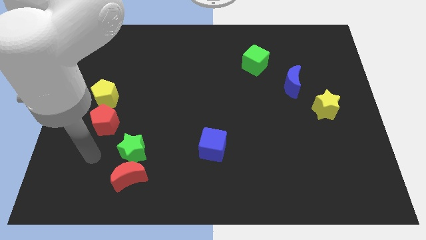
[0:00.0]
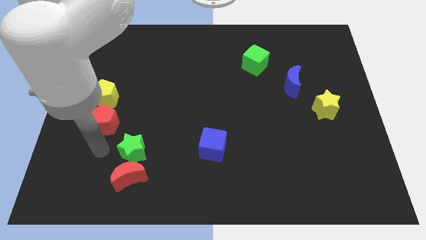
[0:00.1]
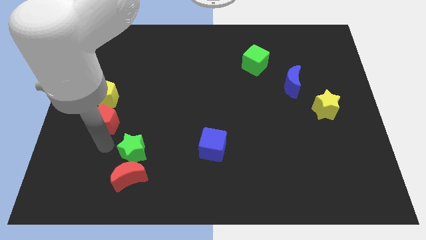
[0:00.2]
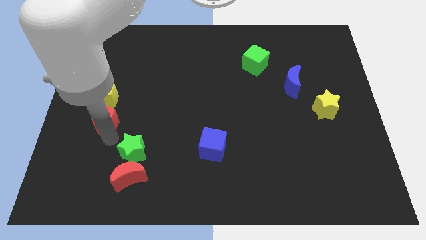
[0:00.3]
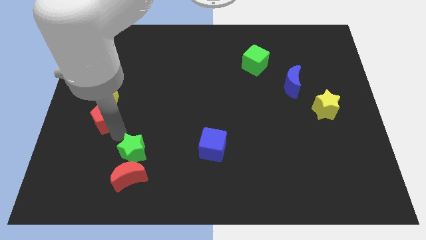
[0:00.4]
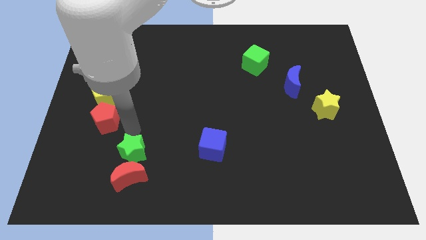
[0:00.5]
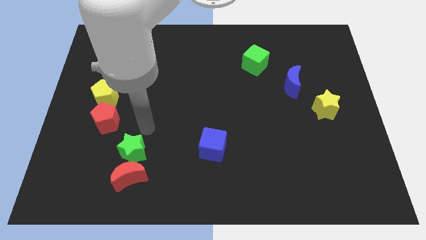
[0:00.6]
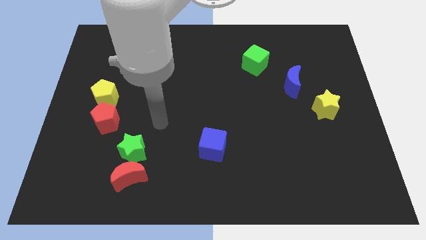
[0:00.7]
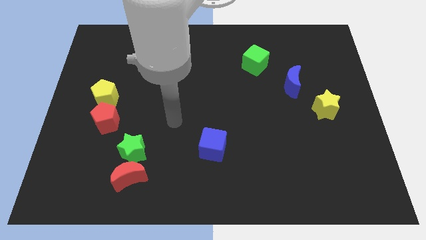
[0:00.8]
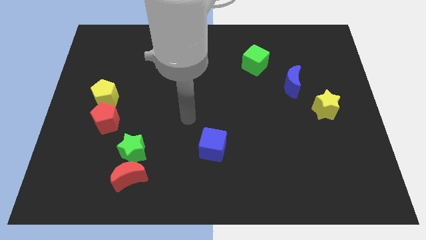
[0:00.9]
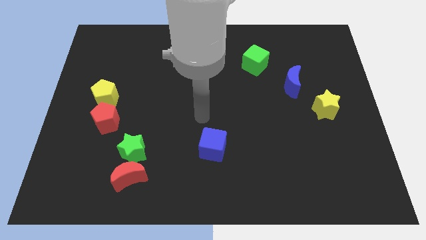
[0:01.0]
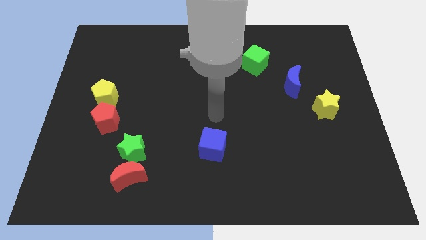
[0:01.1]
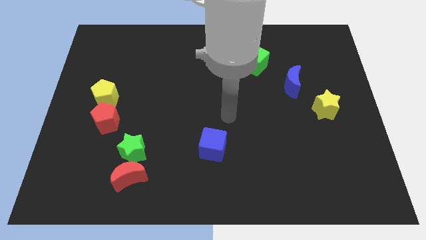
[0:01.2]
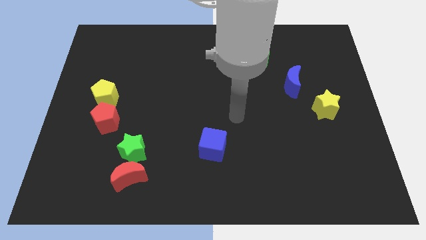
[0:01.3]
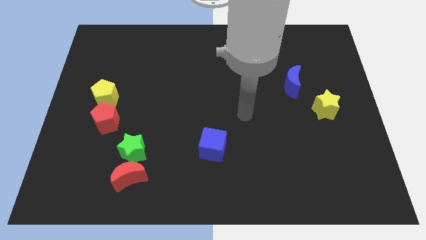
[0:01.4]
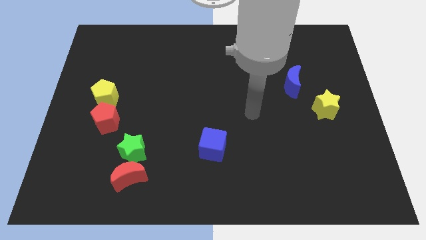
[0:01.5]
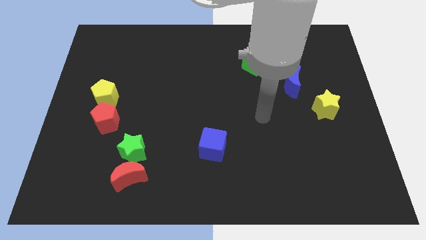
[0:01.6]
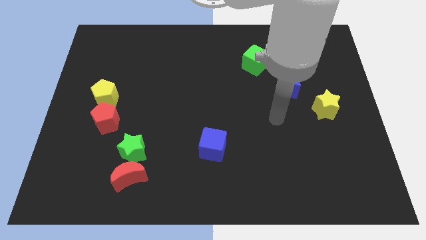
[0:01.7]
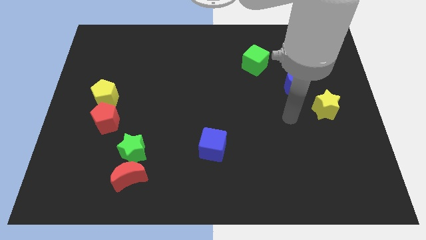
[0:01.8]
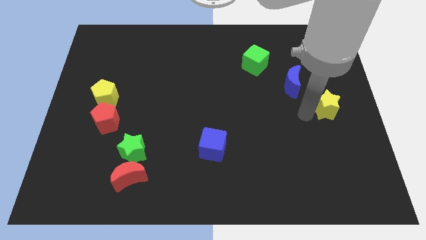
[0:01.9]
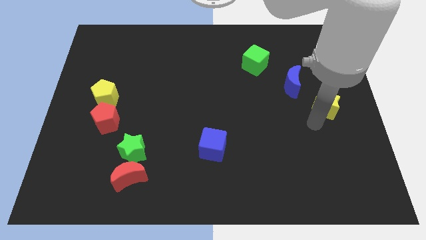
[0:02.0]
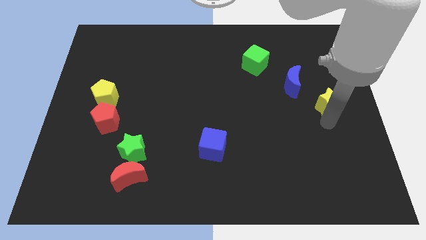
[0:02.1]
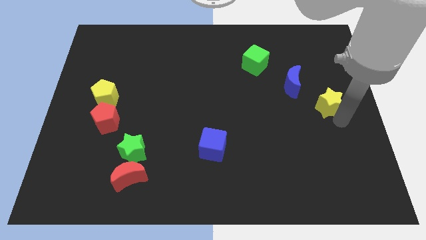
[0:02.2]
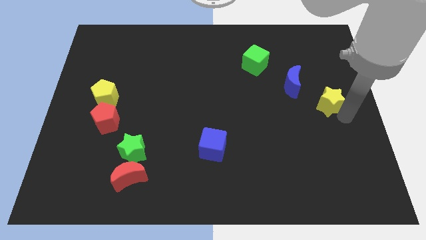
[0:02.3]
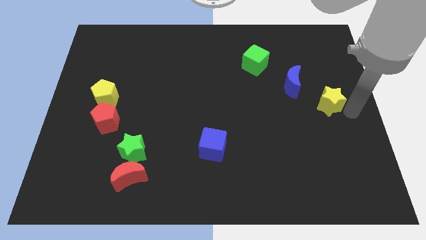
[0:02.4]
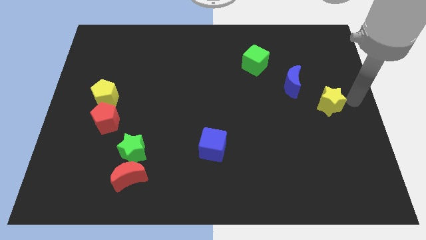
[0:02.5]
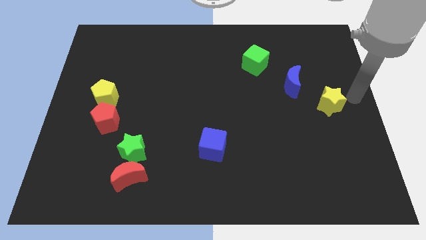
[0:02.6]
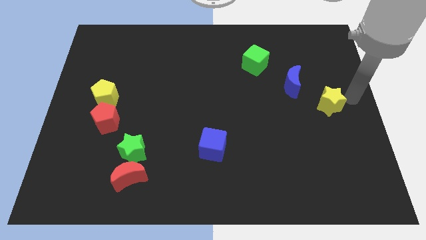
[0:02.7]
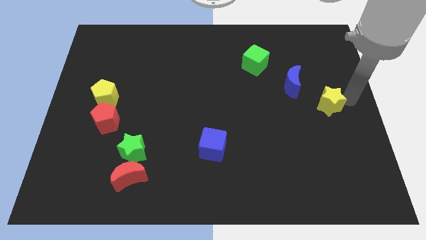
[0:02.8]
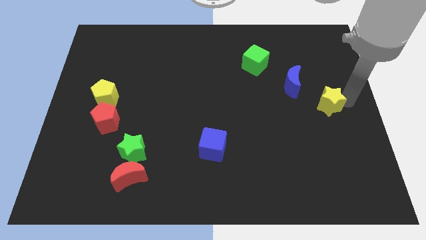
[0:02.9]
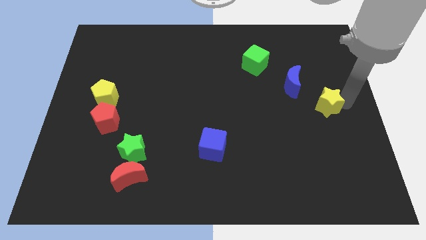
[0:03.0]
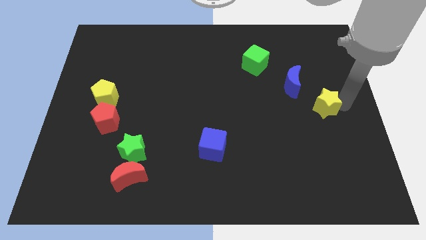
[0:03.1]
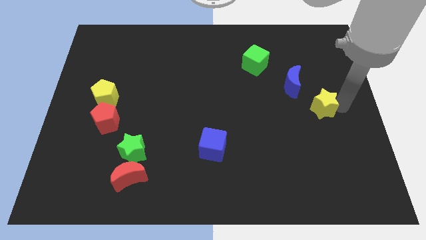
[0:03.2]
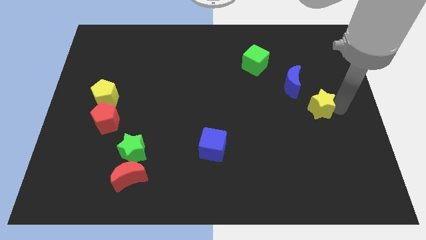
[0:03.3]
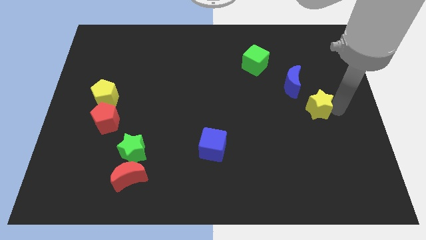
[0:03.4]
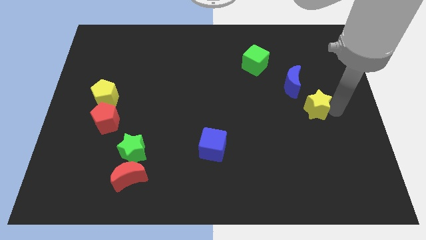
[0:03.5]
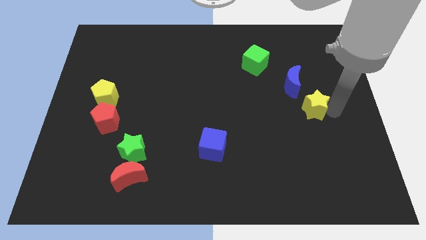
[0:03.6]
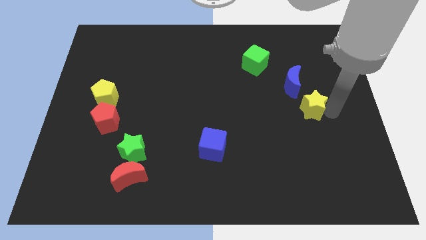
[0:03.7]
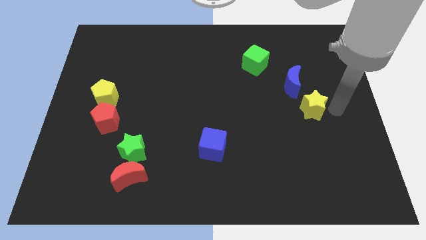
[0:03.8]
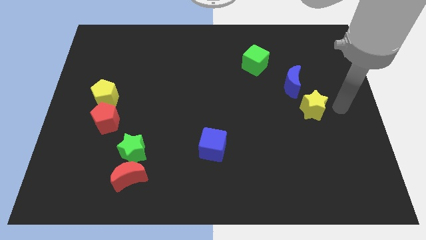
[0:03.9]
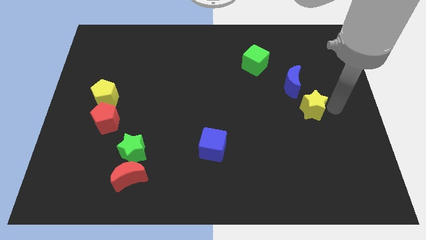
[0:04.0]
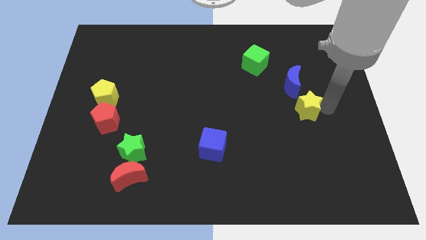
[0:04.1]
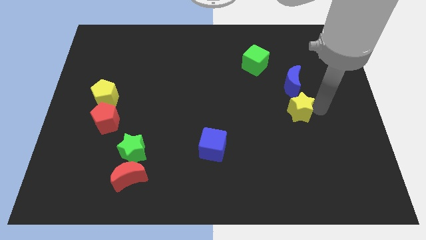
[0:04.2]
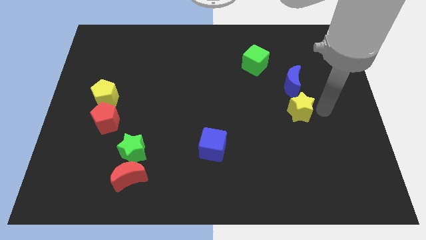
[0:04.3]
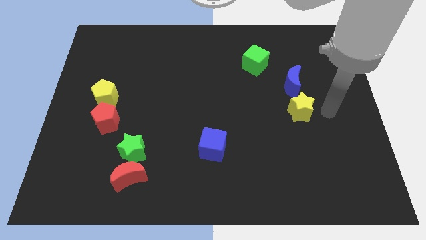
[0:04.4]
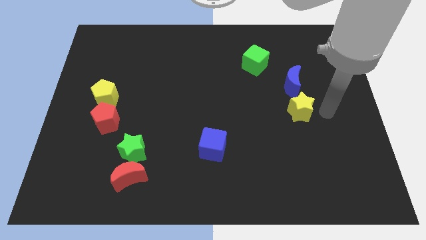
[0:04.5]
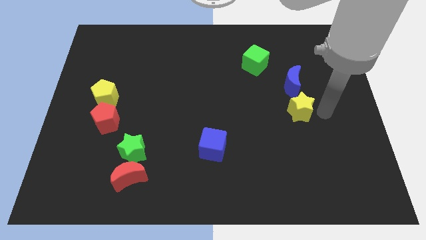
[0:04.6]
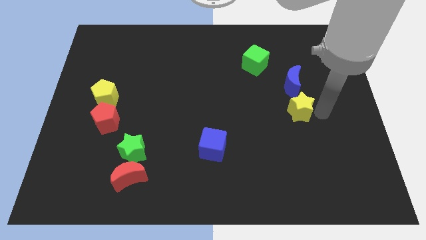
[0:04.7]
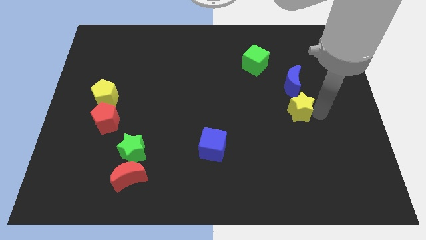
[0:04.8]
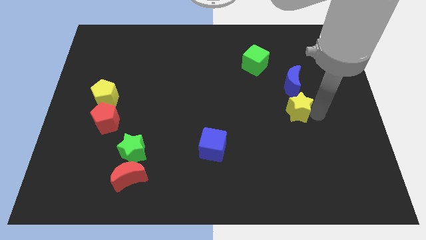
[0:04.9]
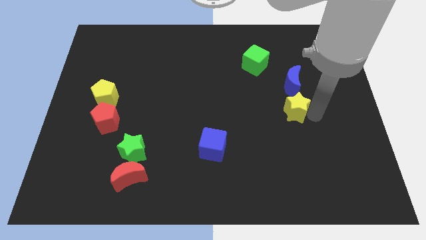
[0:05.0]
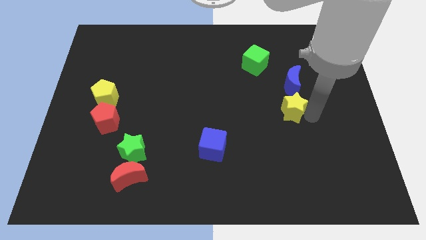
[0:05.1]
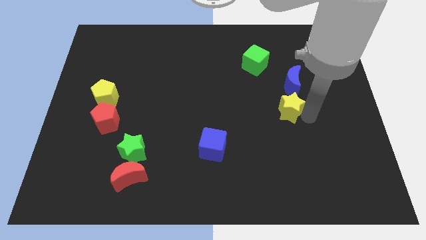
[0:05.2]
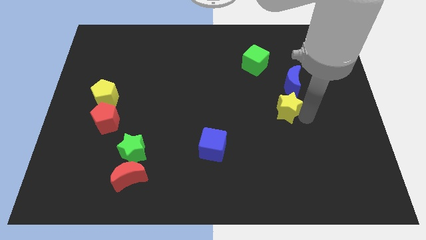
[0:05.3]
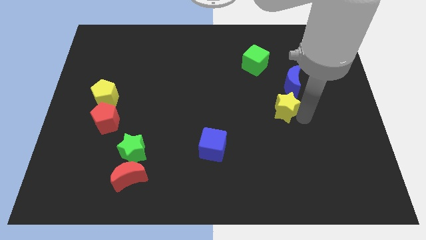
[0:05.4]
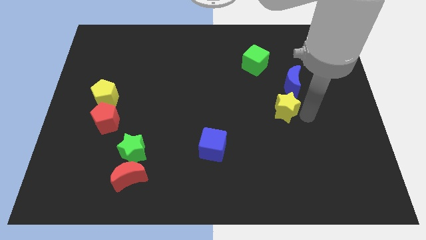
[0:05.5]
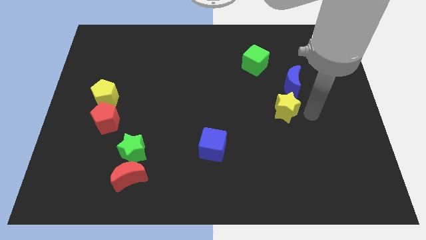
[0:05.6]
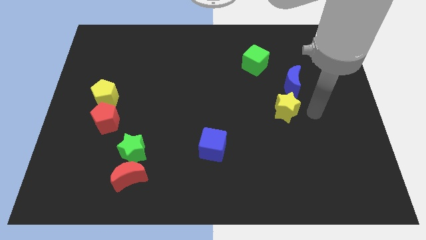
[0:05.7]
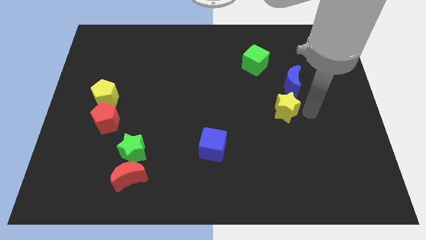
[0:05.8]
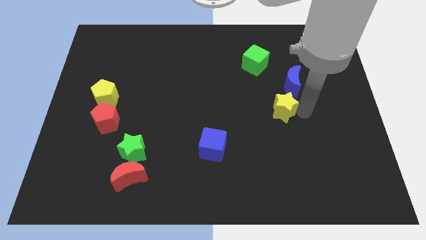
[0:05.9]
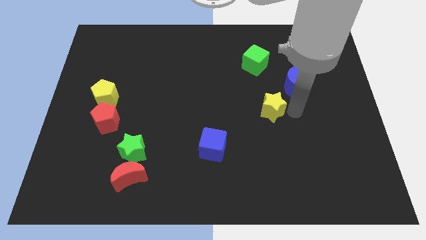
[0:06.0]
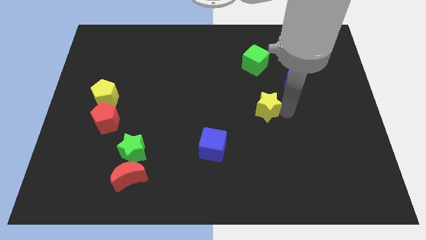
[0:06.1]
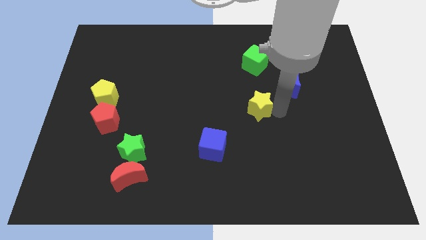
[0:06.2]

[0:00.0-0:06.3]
put the yellow star to the middle

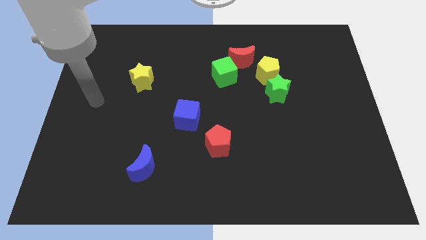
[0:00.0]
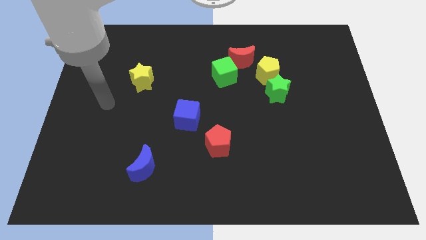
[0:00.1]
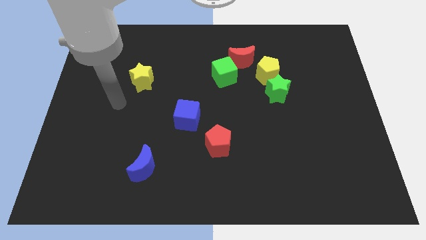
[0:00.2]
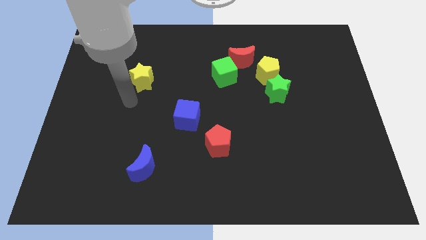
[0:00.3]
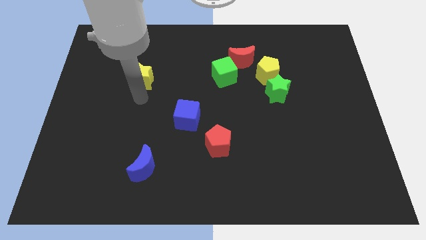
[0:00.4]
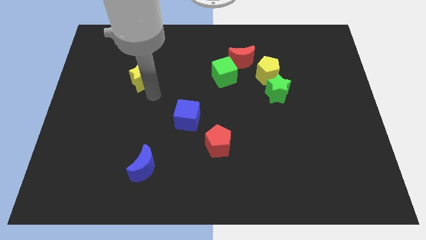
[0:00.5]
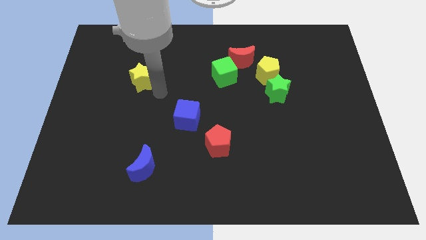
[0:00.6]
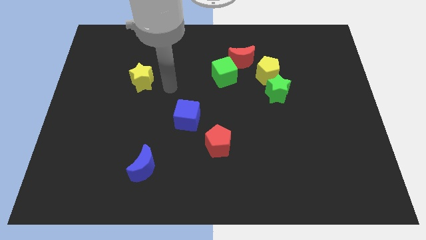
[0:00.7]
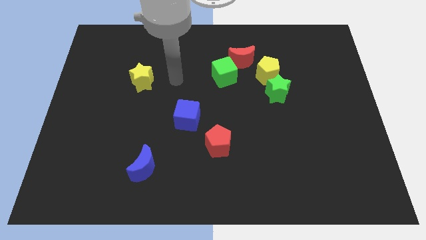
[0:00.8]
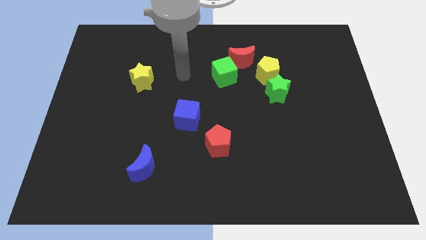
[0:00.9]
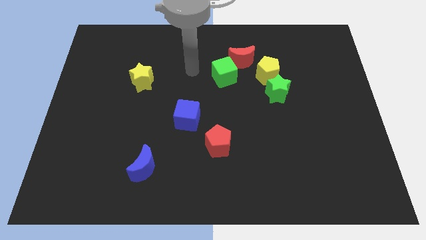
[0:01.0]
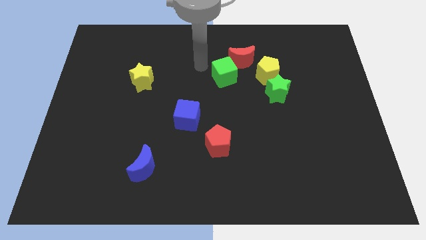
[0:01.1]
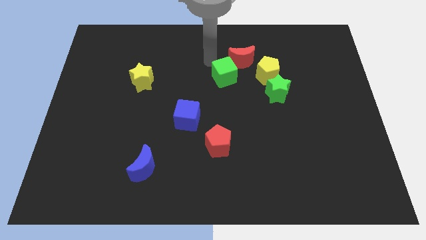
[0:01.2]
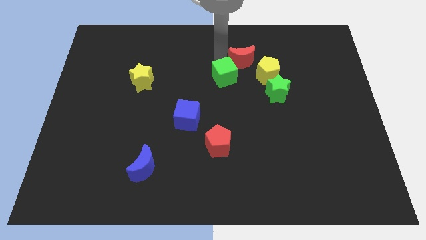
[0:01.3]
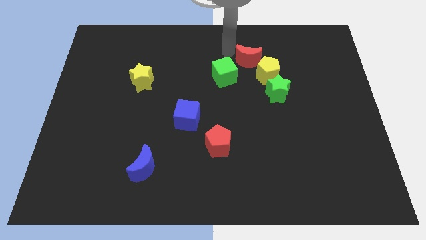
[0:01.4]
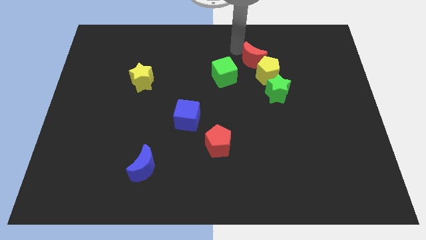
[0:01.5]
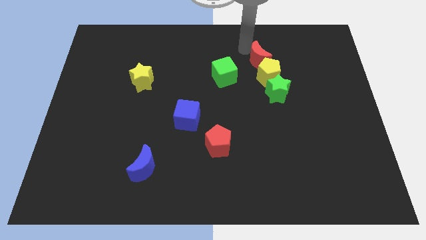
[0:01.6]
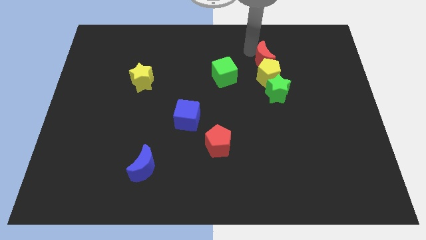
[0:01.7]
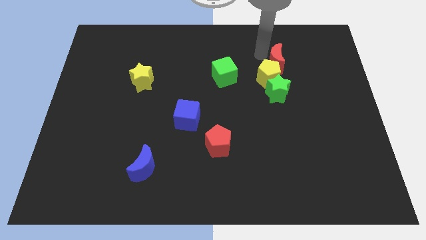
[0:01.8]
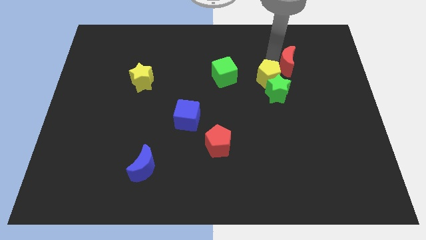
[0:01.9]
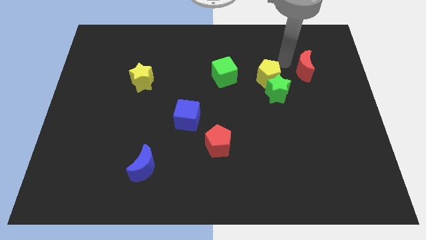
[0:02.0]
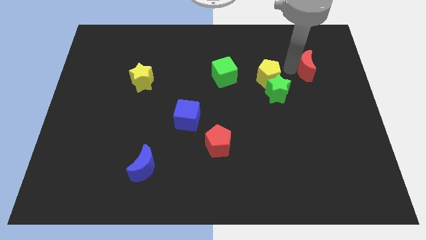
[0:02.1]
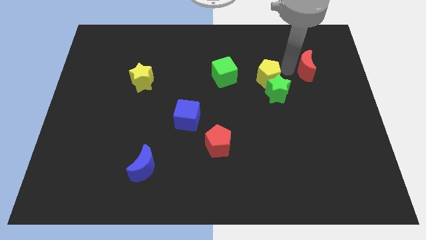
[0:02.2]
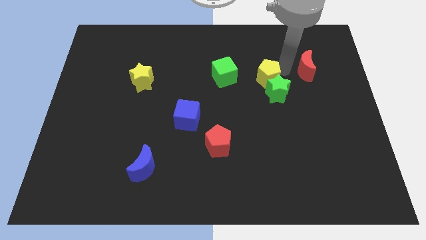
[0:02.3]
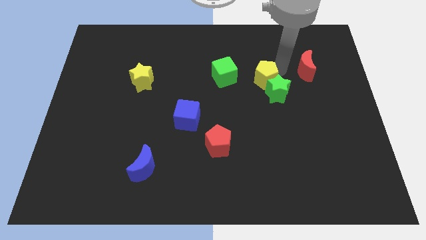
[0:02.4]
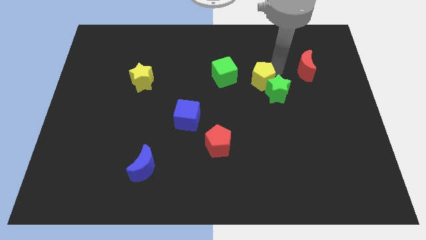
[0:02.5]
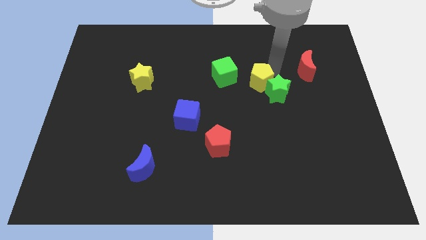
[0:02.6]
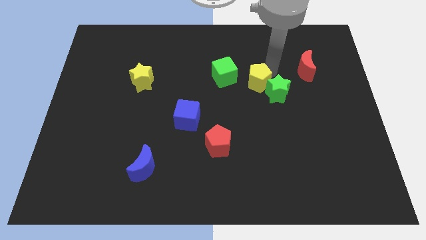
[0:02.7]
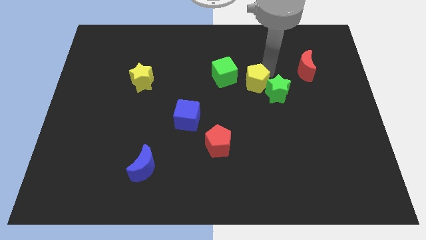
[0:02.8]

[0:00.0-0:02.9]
move the yellow pentagon to the center
